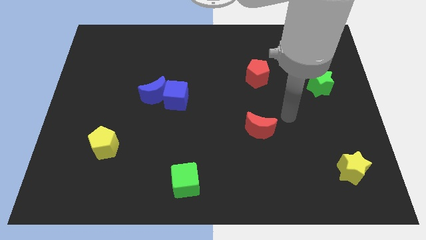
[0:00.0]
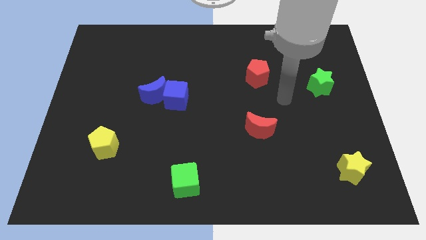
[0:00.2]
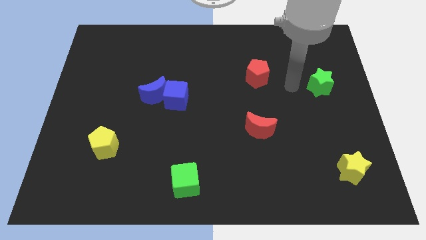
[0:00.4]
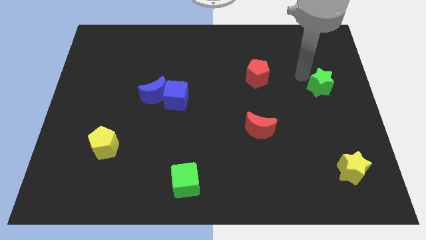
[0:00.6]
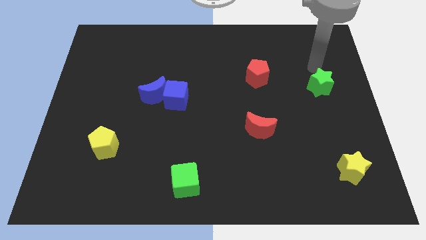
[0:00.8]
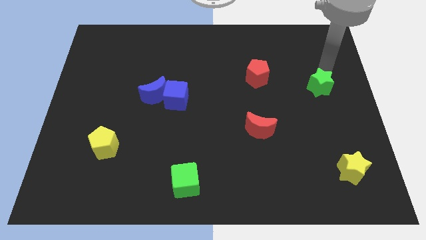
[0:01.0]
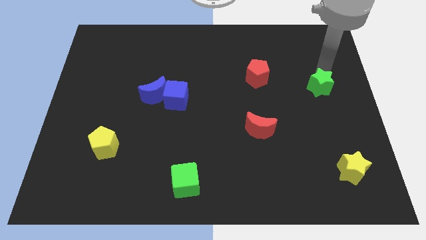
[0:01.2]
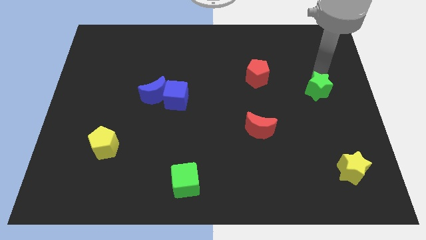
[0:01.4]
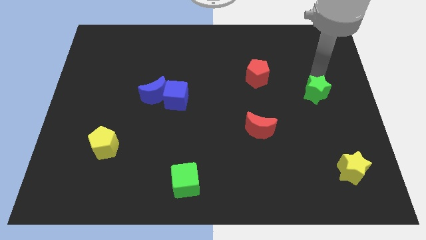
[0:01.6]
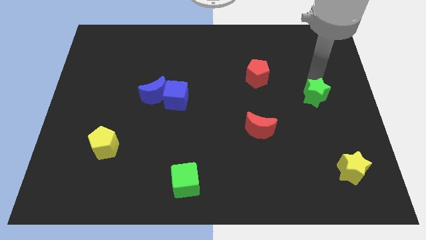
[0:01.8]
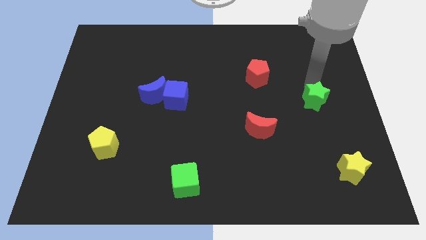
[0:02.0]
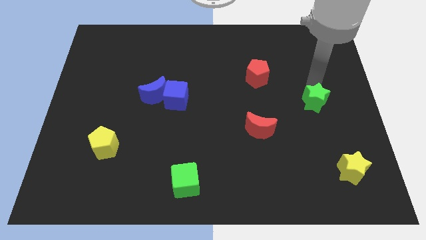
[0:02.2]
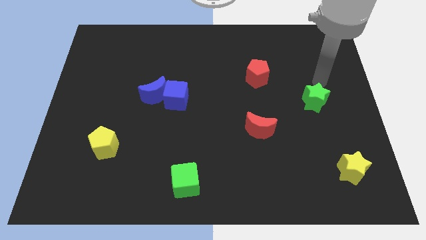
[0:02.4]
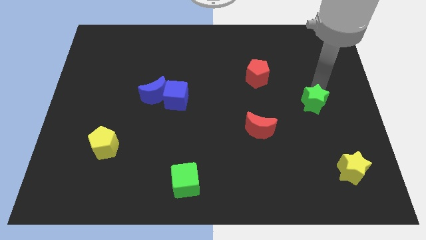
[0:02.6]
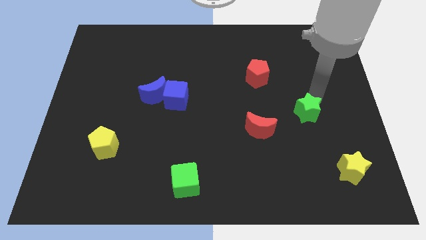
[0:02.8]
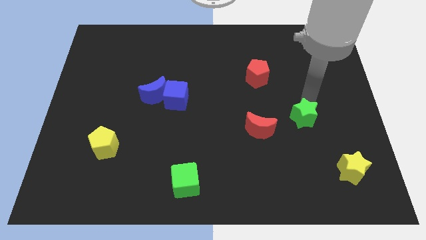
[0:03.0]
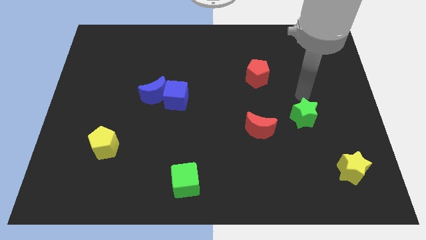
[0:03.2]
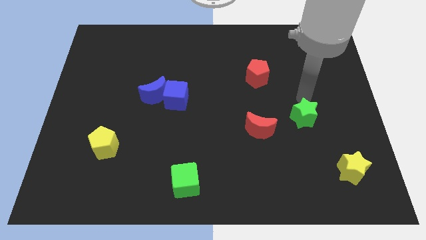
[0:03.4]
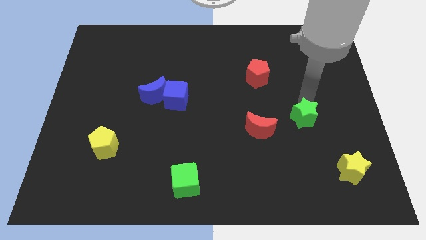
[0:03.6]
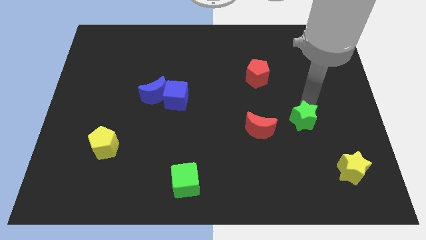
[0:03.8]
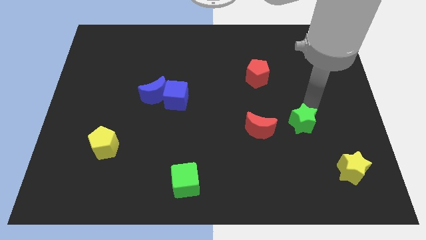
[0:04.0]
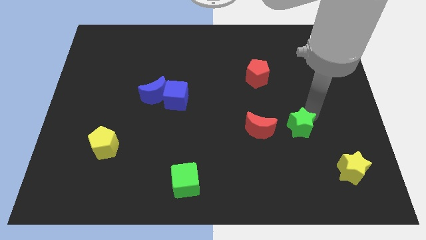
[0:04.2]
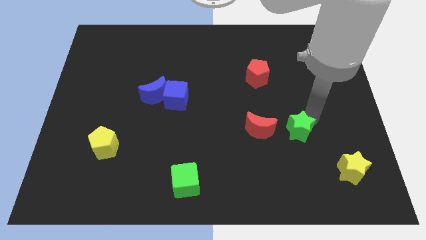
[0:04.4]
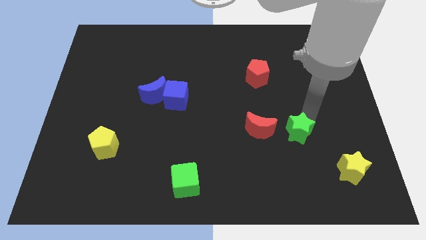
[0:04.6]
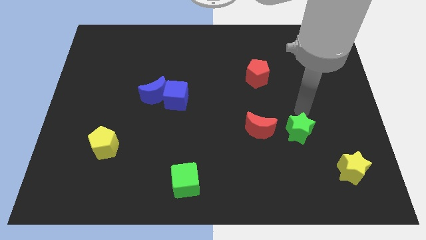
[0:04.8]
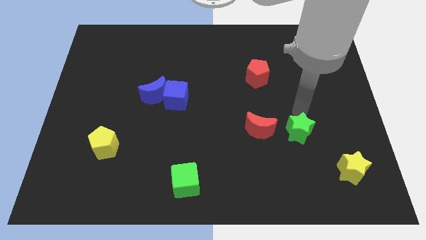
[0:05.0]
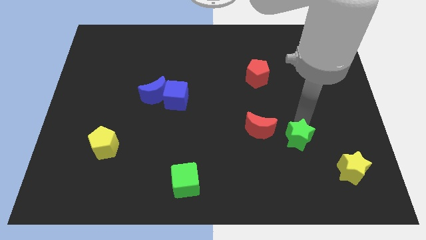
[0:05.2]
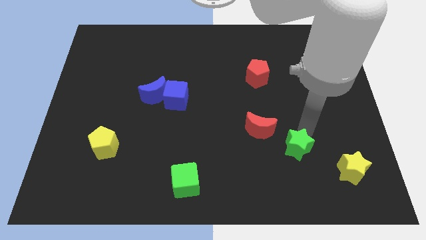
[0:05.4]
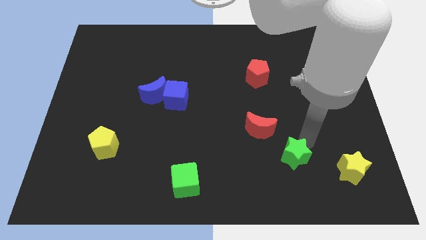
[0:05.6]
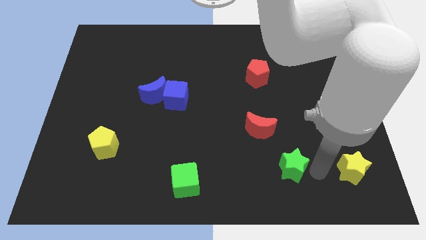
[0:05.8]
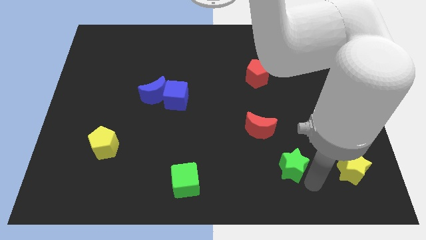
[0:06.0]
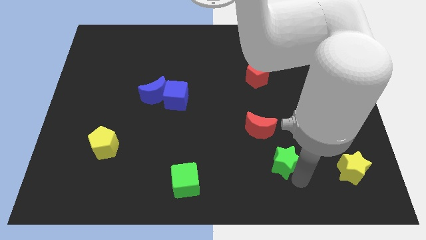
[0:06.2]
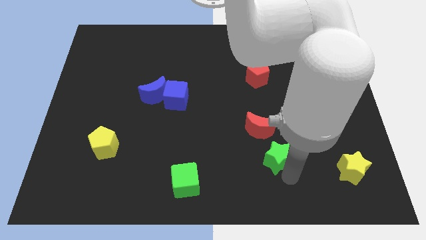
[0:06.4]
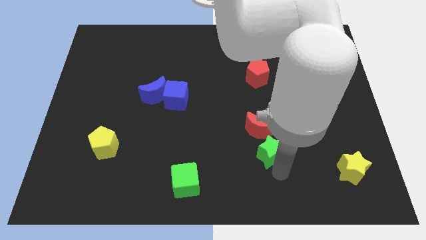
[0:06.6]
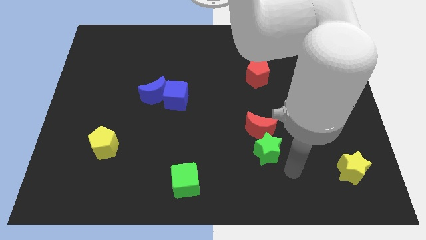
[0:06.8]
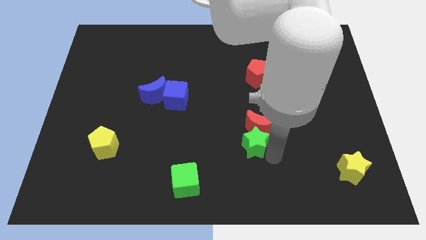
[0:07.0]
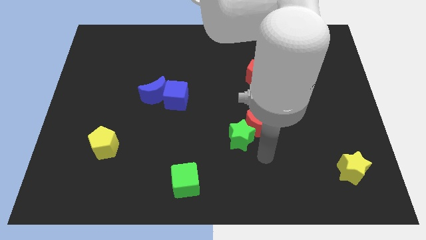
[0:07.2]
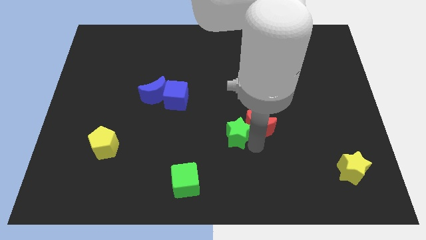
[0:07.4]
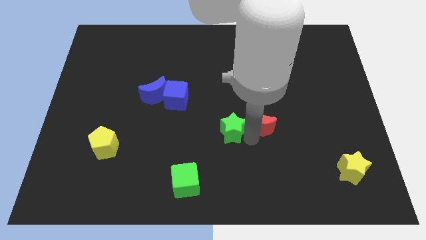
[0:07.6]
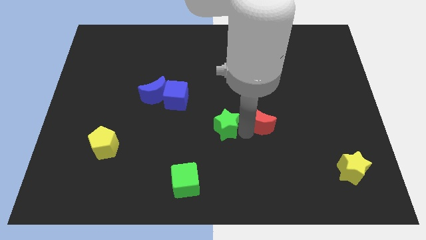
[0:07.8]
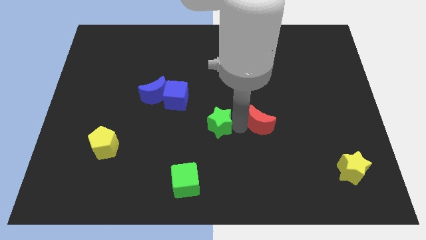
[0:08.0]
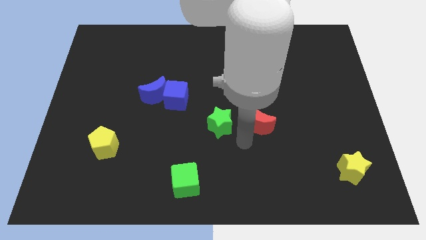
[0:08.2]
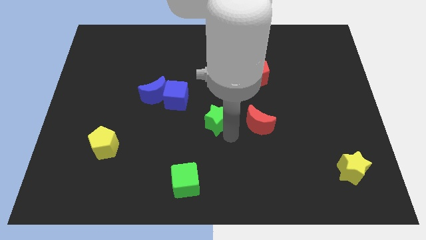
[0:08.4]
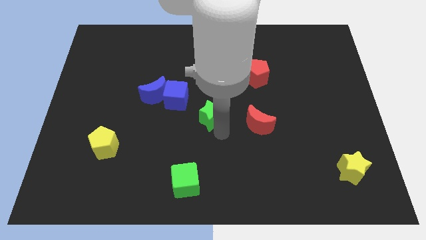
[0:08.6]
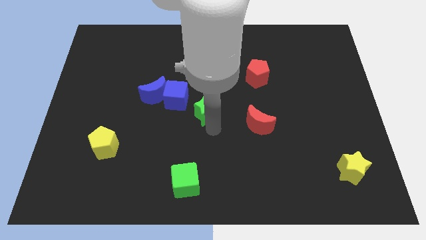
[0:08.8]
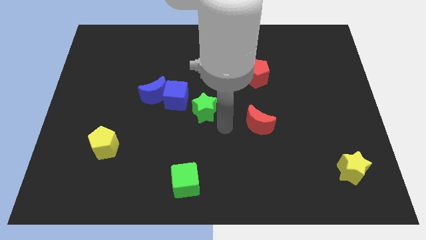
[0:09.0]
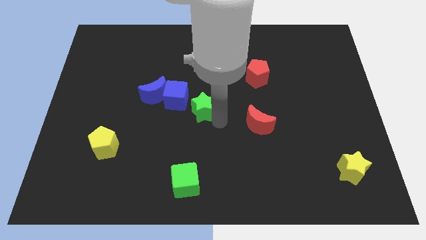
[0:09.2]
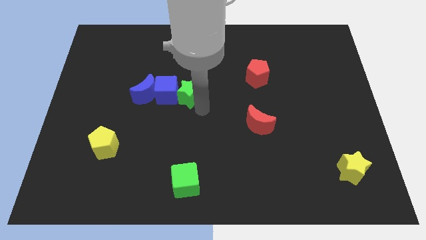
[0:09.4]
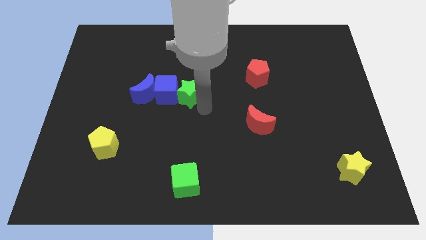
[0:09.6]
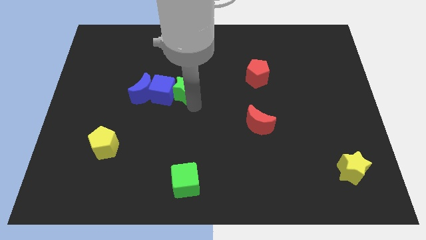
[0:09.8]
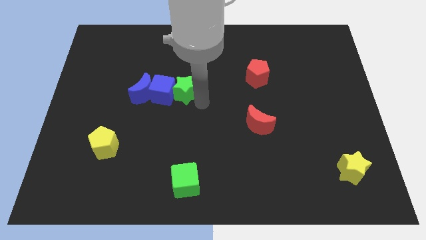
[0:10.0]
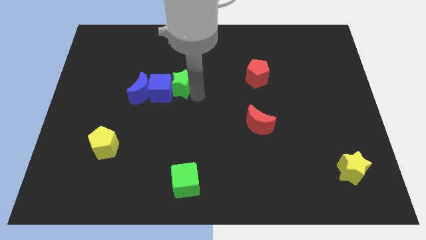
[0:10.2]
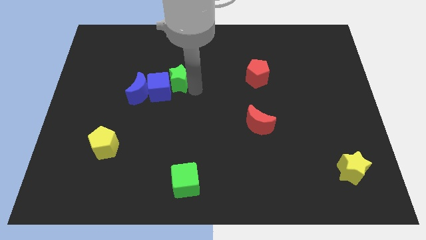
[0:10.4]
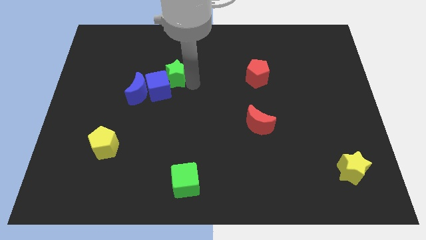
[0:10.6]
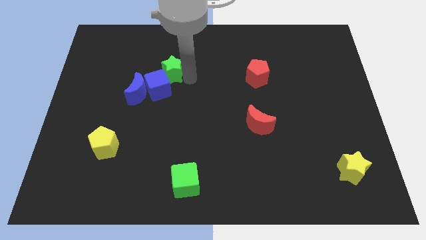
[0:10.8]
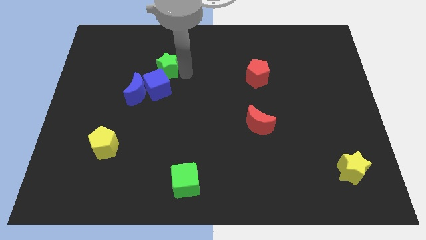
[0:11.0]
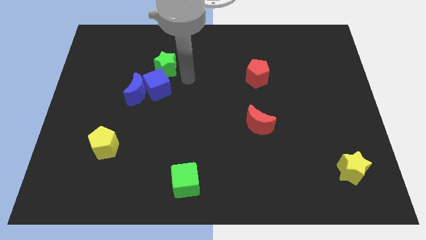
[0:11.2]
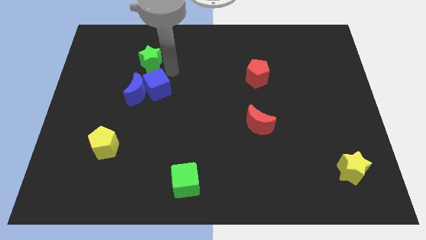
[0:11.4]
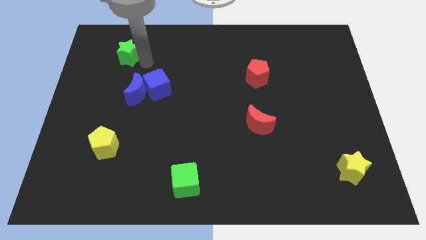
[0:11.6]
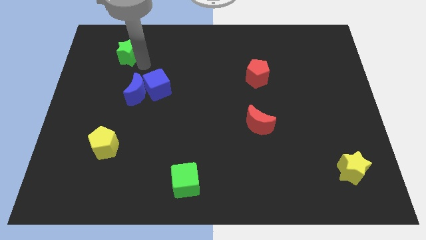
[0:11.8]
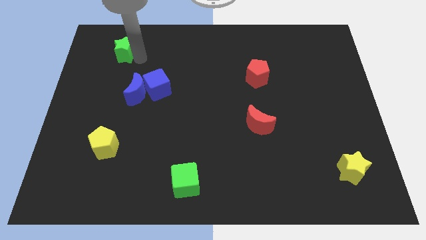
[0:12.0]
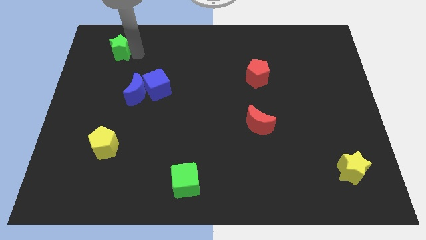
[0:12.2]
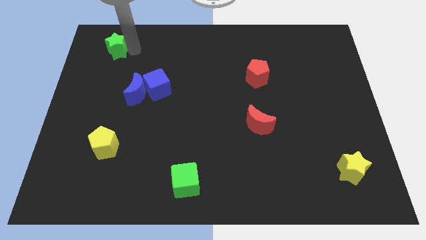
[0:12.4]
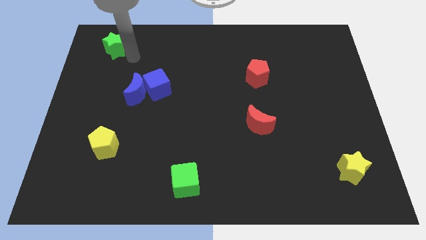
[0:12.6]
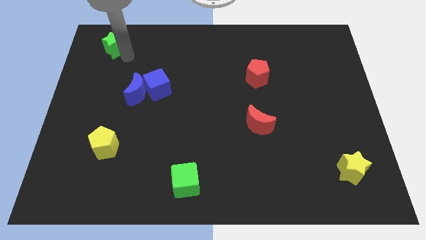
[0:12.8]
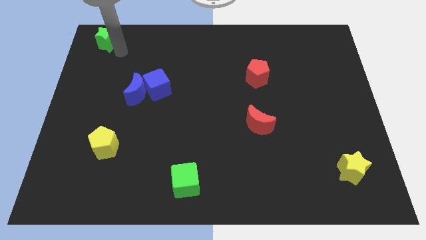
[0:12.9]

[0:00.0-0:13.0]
put the green star to the top left
